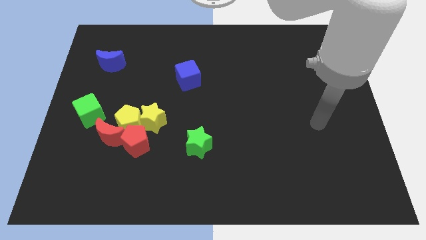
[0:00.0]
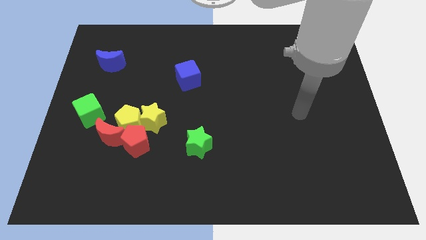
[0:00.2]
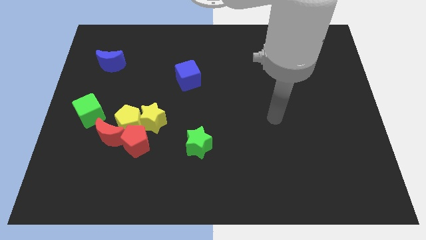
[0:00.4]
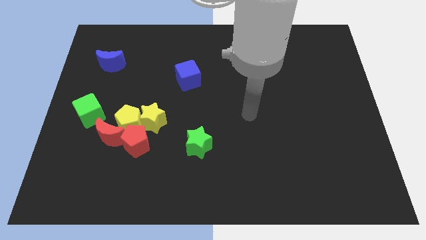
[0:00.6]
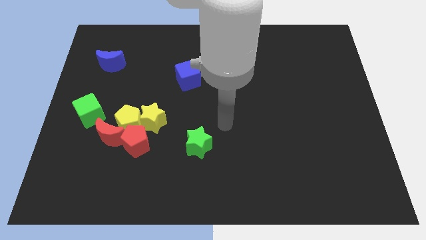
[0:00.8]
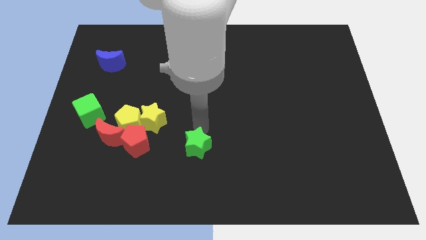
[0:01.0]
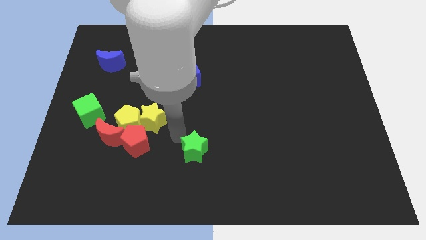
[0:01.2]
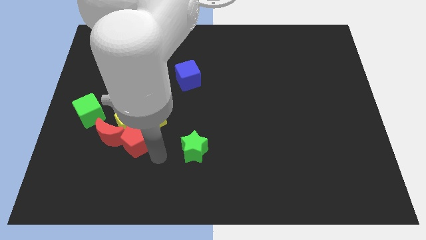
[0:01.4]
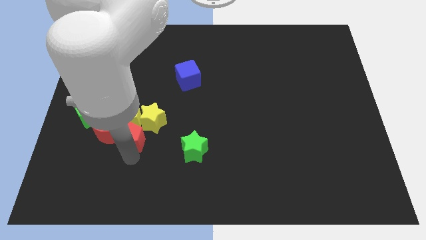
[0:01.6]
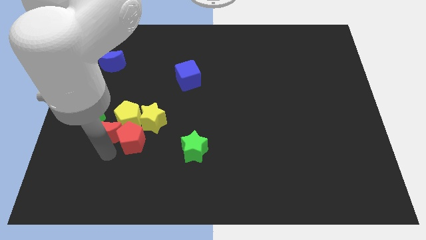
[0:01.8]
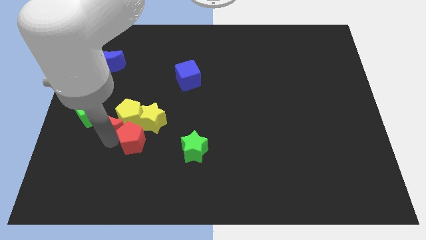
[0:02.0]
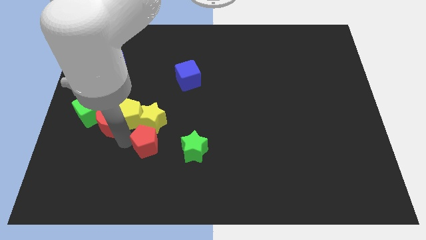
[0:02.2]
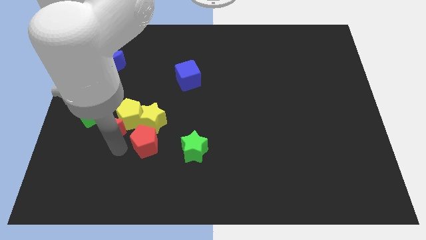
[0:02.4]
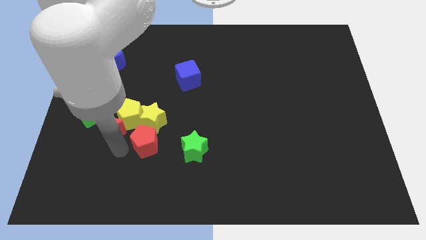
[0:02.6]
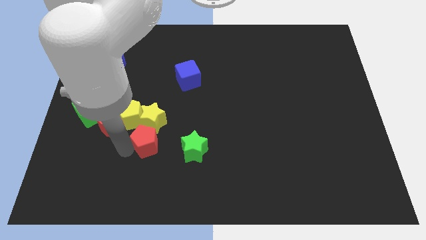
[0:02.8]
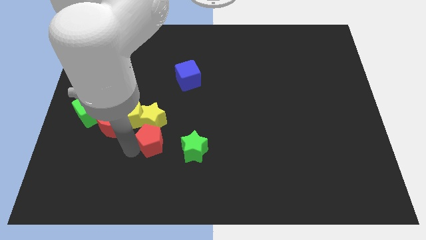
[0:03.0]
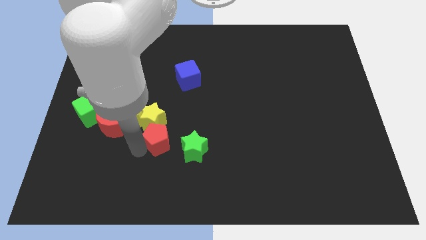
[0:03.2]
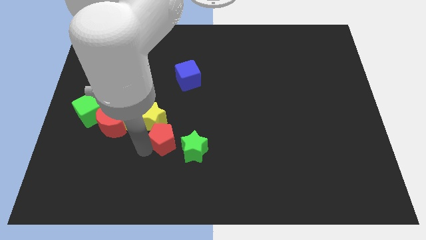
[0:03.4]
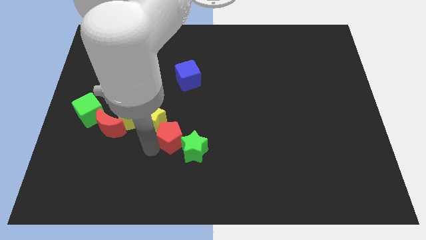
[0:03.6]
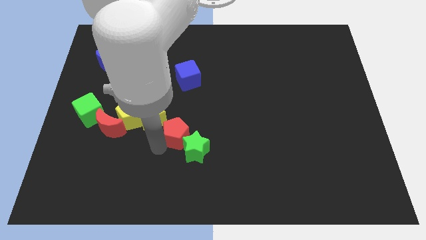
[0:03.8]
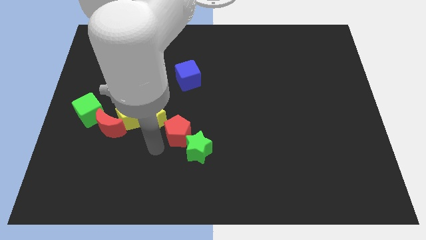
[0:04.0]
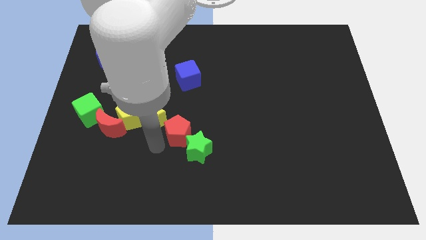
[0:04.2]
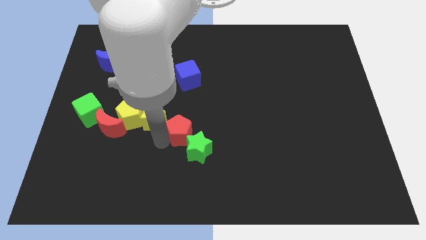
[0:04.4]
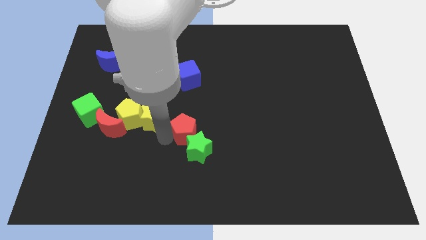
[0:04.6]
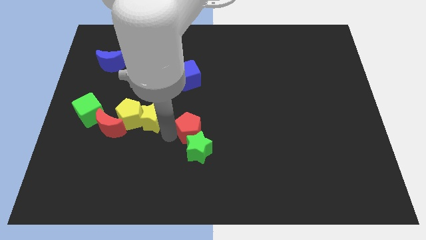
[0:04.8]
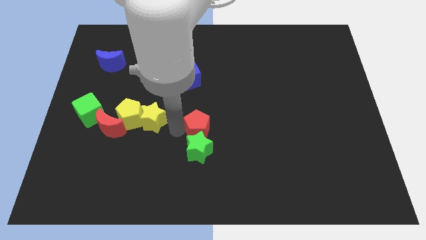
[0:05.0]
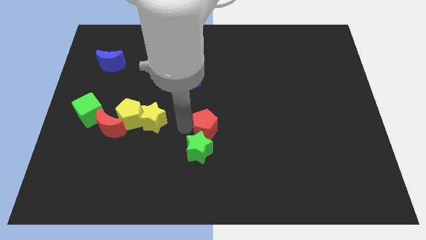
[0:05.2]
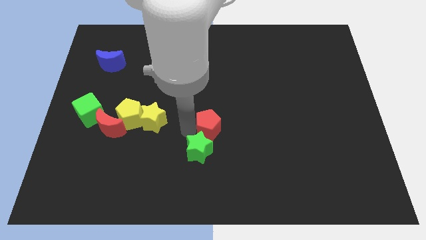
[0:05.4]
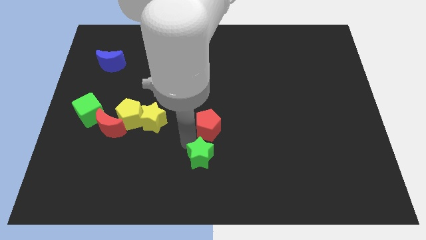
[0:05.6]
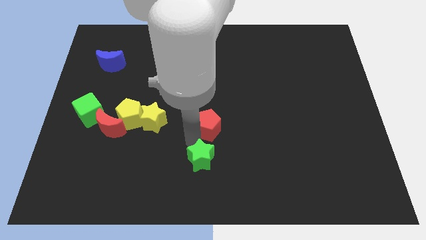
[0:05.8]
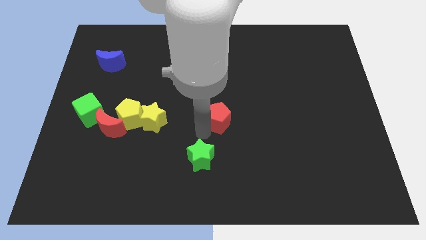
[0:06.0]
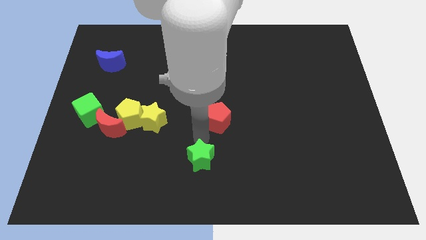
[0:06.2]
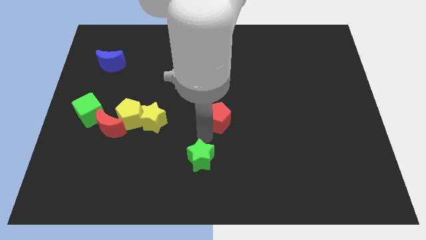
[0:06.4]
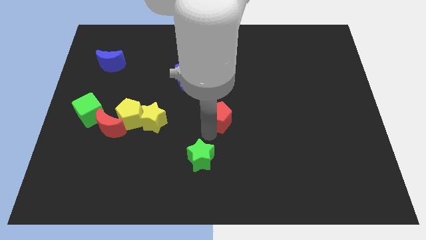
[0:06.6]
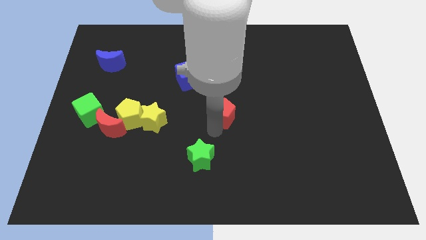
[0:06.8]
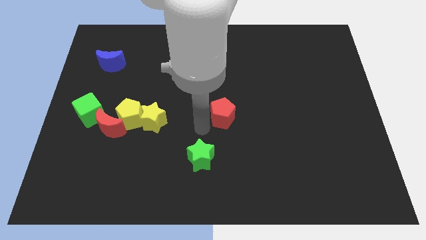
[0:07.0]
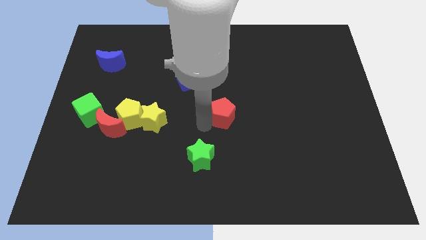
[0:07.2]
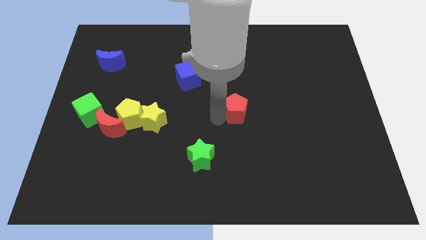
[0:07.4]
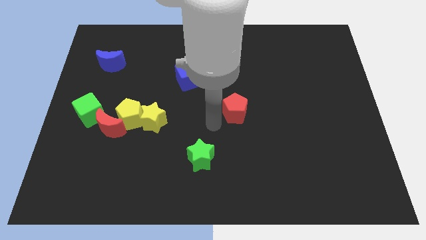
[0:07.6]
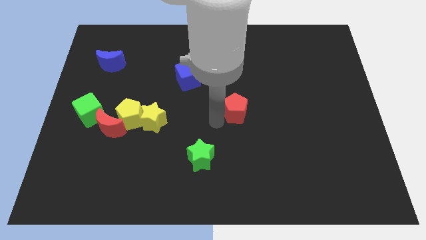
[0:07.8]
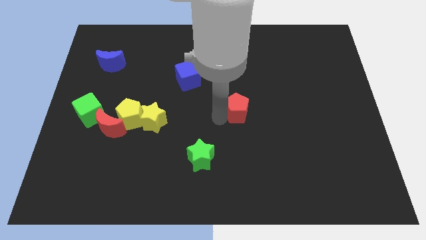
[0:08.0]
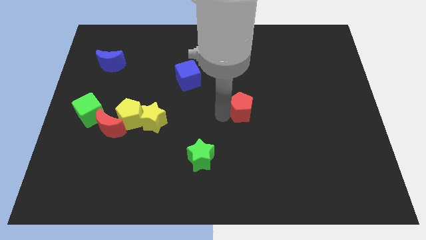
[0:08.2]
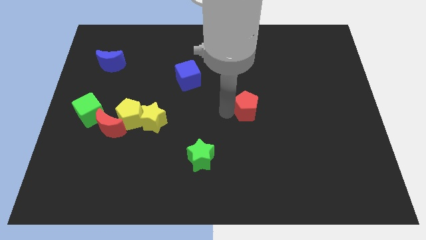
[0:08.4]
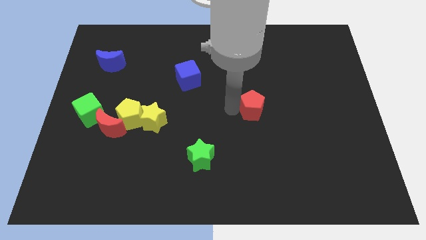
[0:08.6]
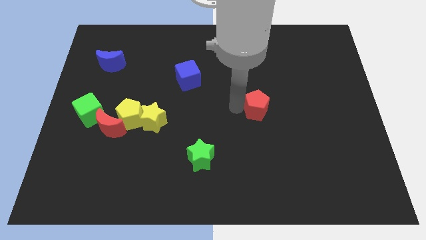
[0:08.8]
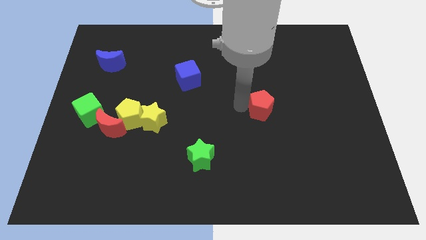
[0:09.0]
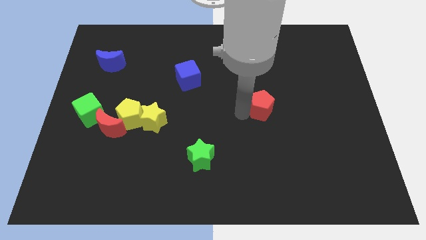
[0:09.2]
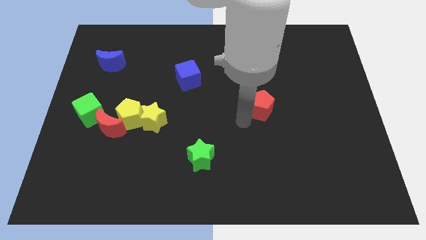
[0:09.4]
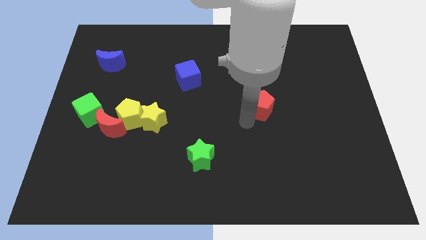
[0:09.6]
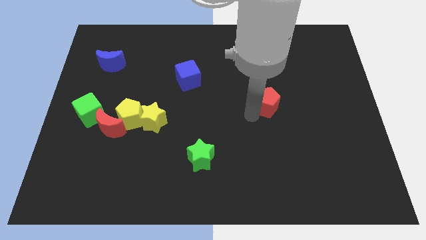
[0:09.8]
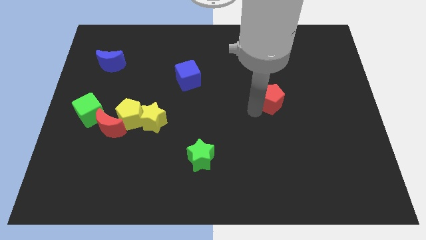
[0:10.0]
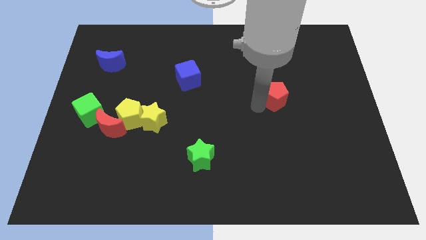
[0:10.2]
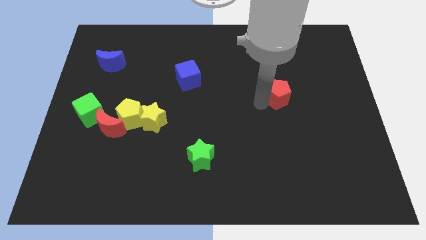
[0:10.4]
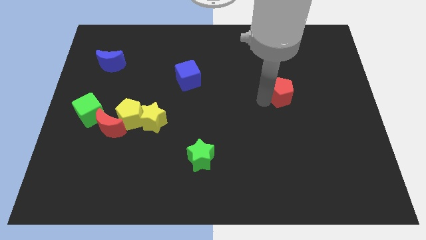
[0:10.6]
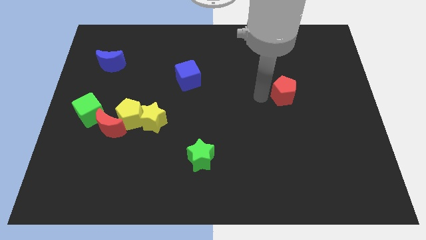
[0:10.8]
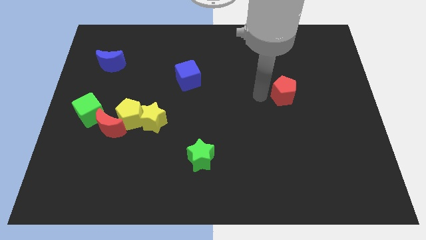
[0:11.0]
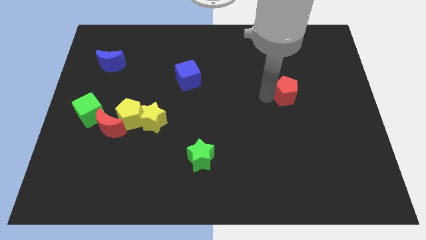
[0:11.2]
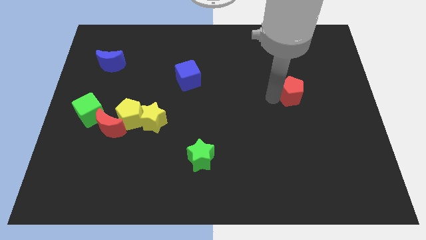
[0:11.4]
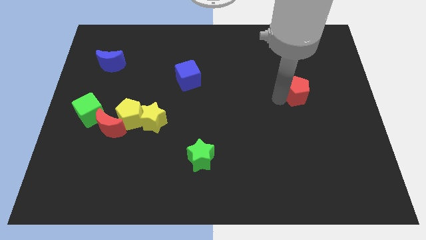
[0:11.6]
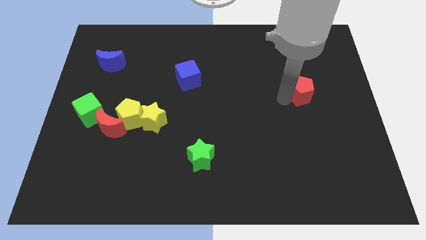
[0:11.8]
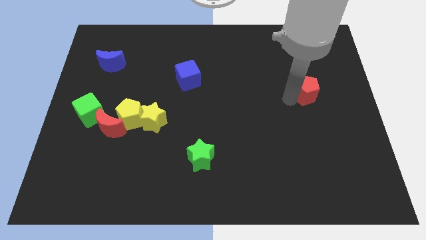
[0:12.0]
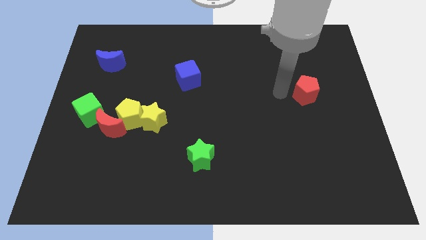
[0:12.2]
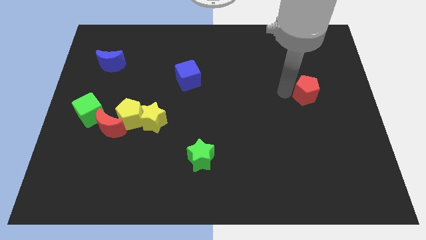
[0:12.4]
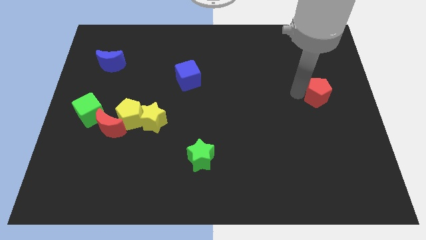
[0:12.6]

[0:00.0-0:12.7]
push the red pentagon to the center right
